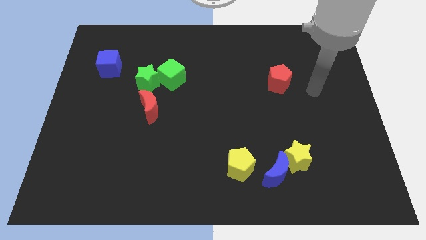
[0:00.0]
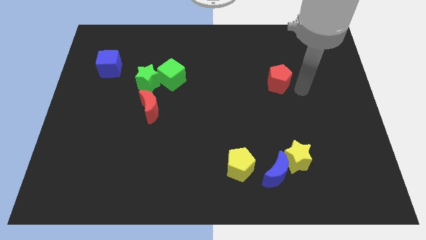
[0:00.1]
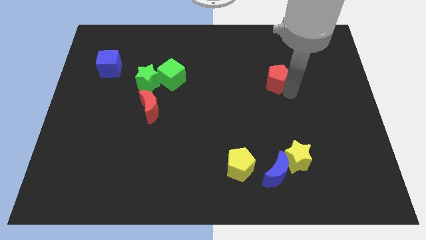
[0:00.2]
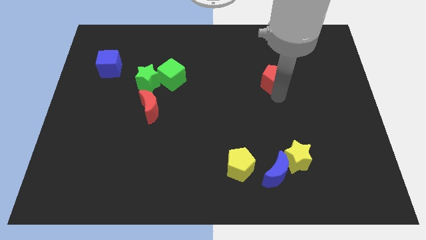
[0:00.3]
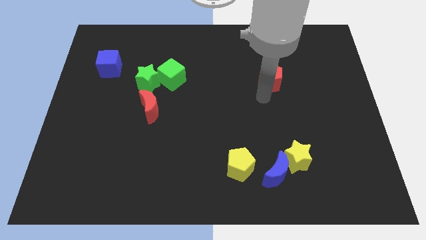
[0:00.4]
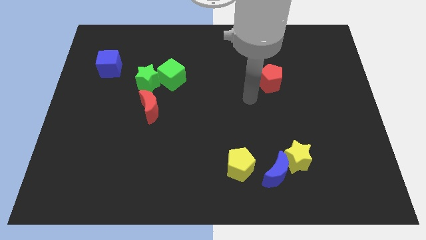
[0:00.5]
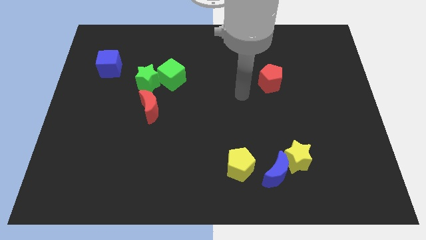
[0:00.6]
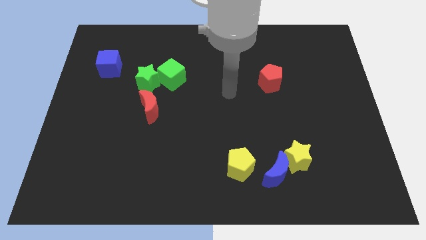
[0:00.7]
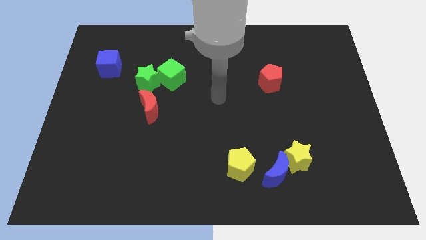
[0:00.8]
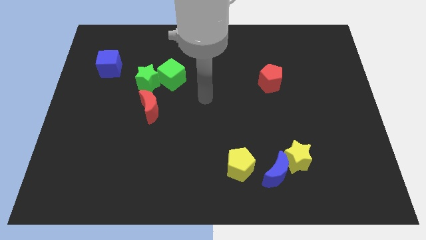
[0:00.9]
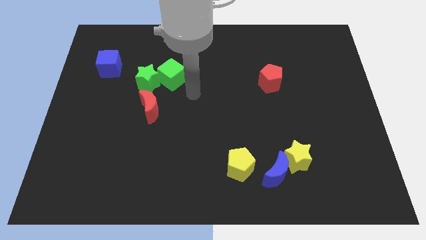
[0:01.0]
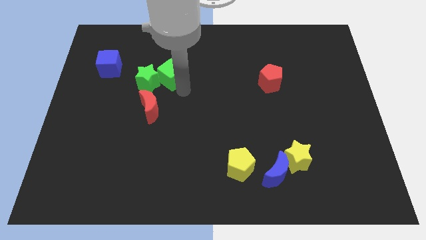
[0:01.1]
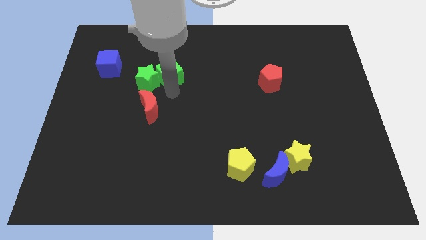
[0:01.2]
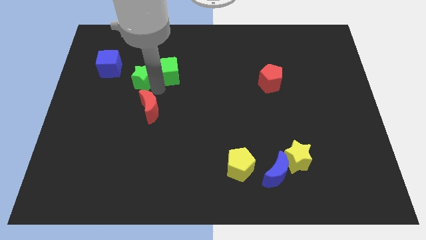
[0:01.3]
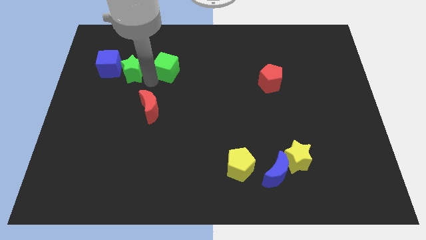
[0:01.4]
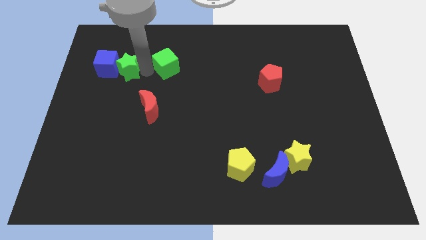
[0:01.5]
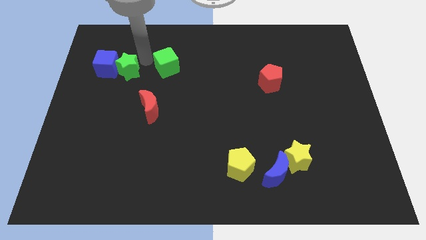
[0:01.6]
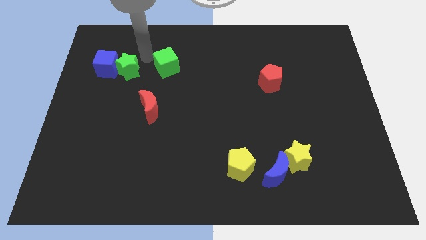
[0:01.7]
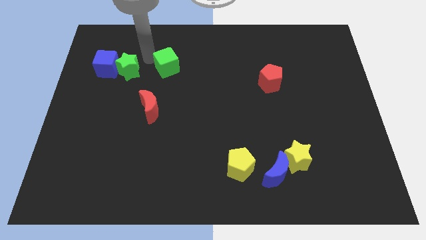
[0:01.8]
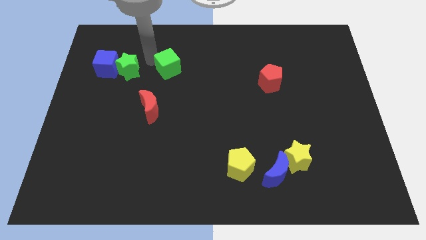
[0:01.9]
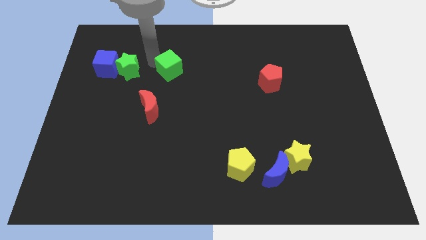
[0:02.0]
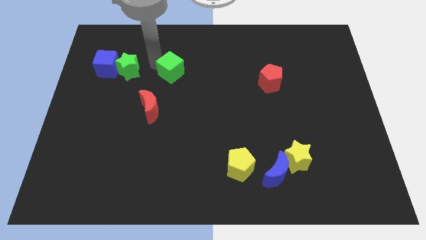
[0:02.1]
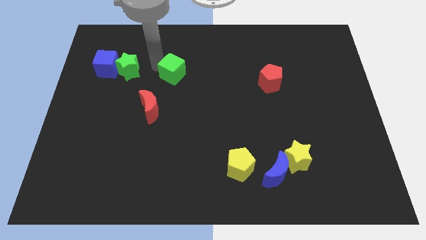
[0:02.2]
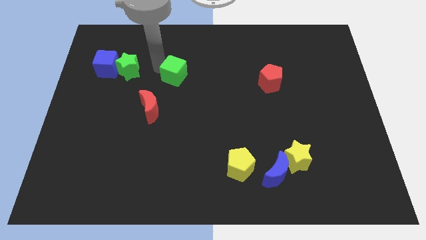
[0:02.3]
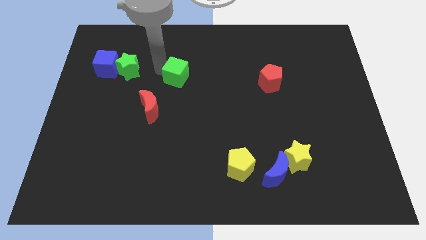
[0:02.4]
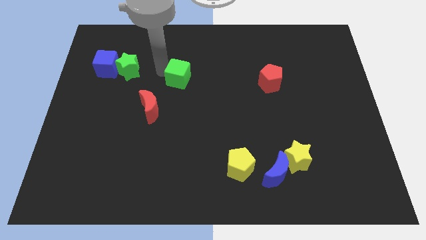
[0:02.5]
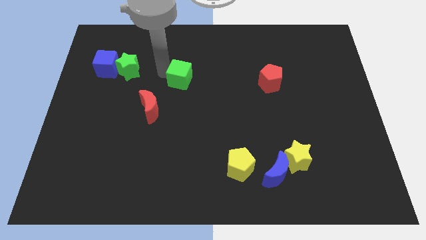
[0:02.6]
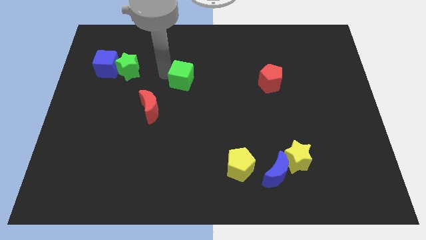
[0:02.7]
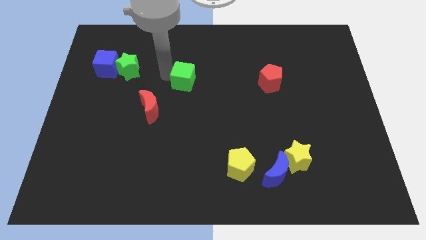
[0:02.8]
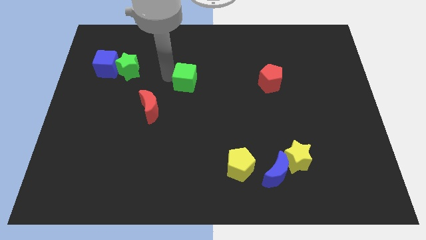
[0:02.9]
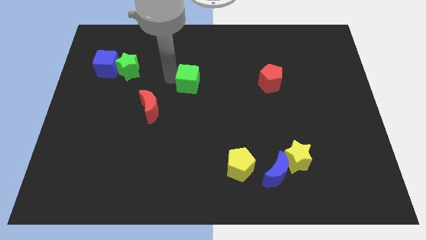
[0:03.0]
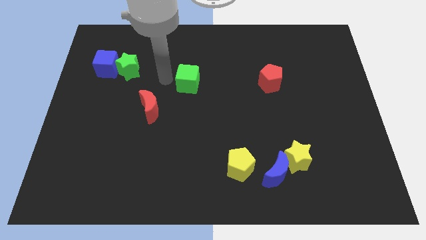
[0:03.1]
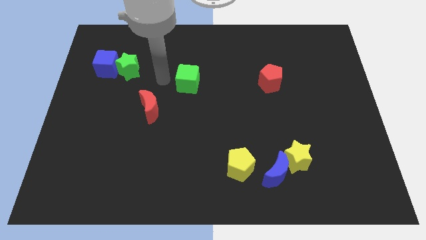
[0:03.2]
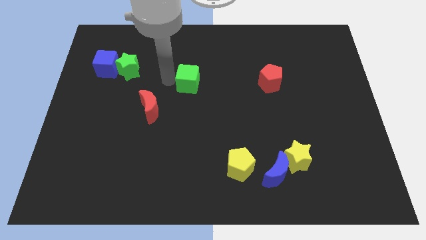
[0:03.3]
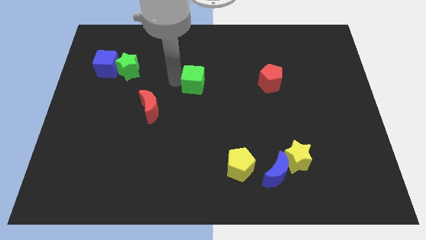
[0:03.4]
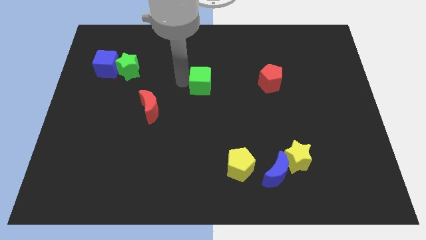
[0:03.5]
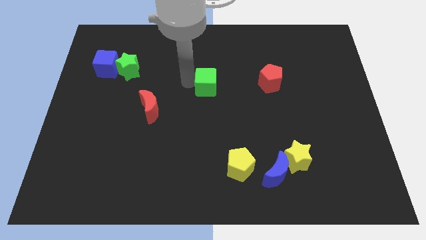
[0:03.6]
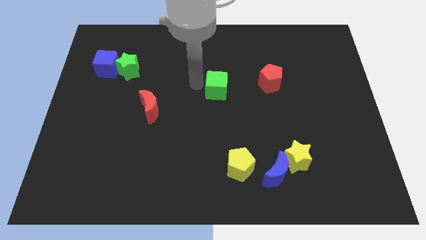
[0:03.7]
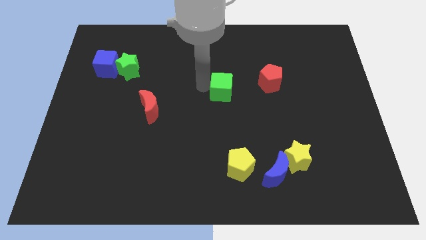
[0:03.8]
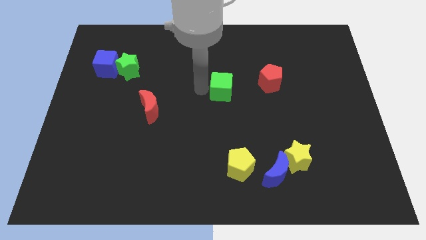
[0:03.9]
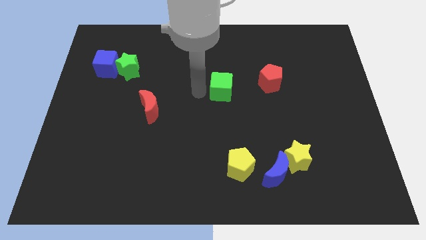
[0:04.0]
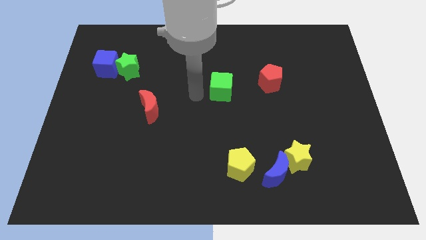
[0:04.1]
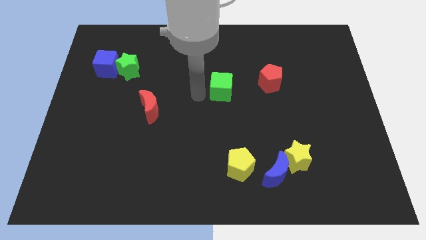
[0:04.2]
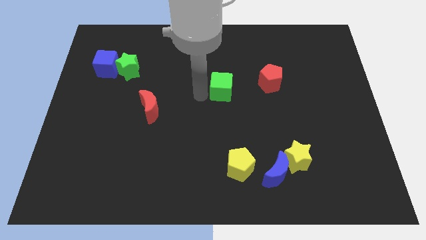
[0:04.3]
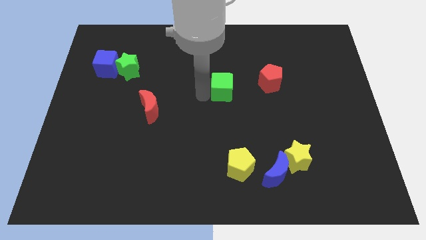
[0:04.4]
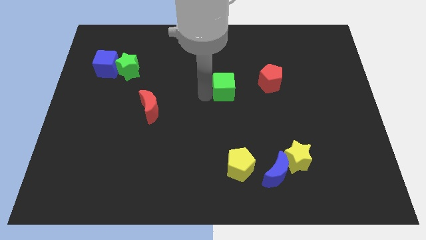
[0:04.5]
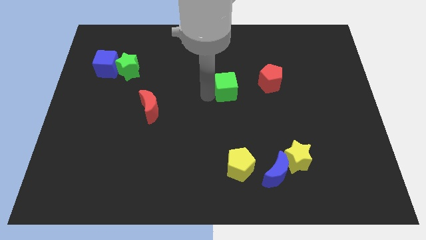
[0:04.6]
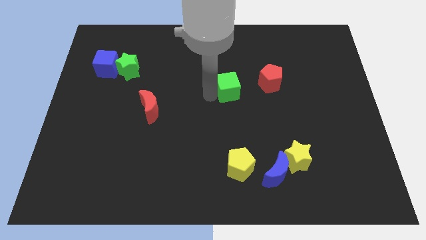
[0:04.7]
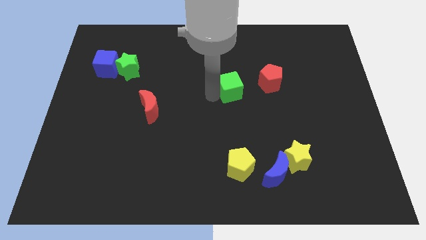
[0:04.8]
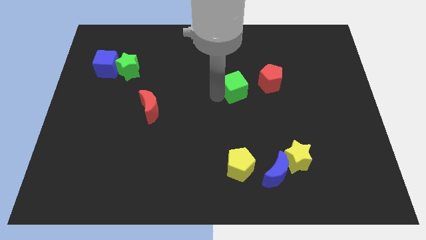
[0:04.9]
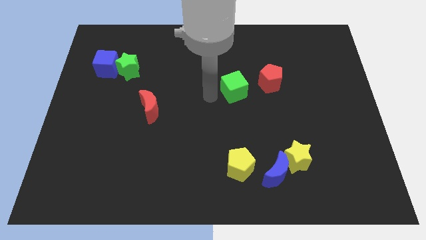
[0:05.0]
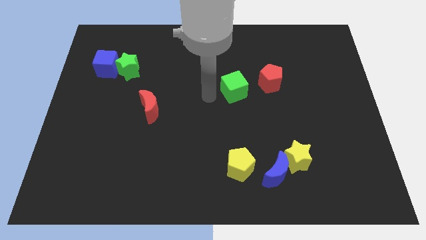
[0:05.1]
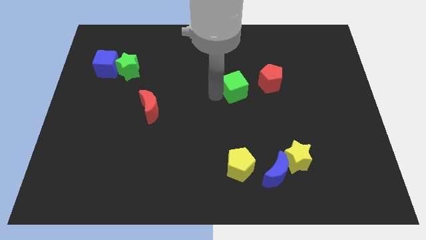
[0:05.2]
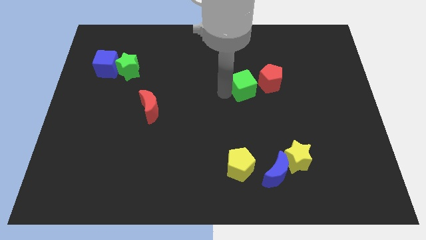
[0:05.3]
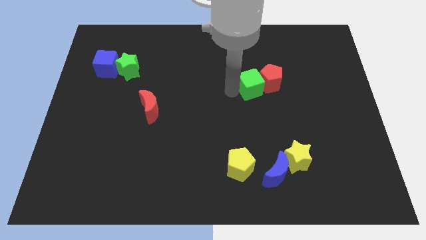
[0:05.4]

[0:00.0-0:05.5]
put the green cube close to the red pentagon

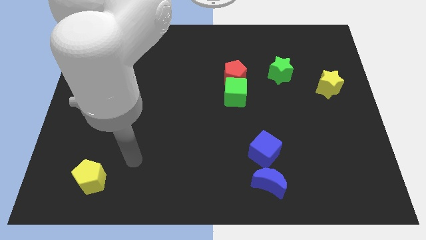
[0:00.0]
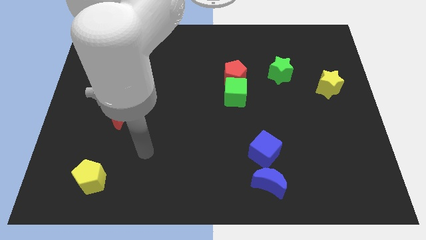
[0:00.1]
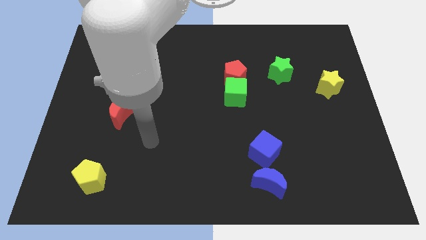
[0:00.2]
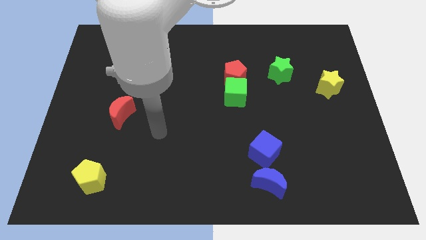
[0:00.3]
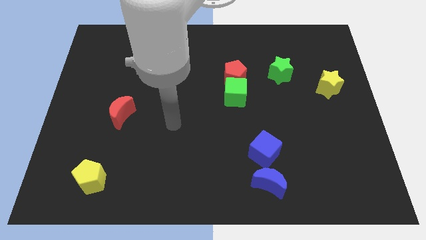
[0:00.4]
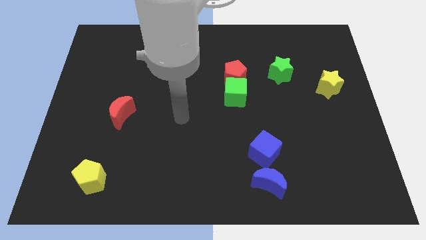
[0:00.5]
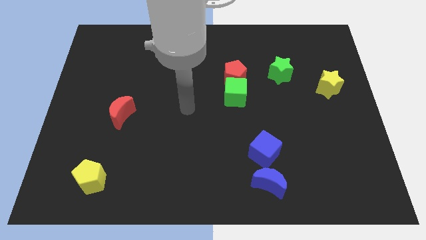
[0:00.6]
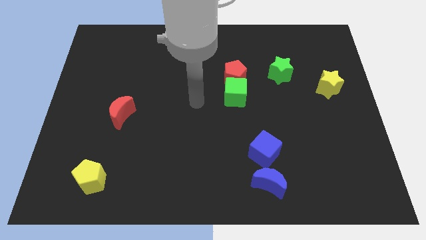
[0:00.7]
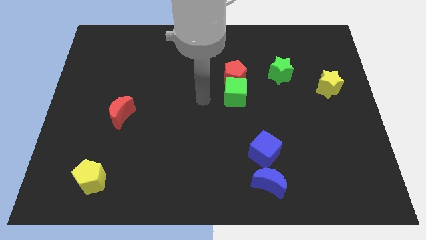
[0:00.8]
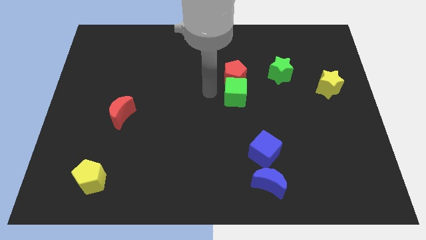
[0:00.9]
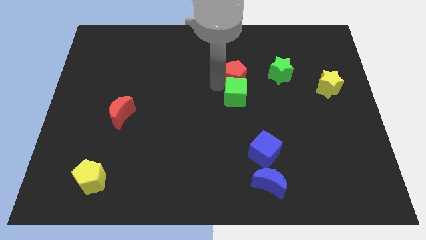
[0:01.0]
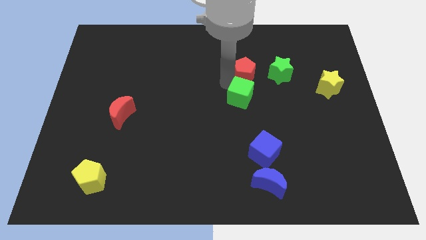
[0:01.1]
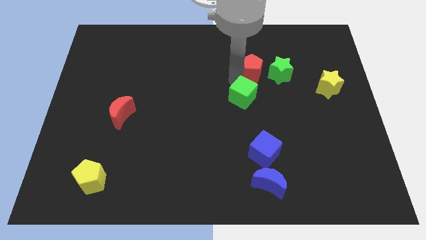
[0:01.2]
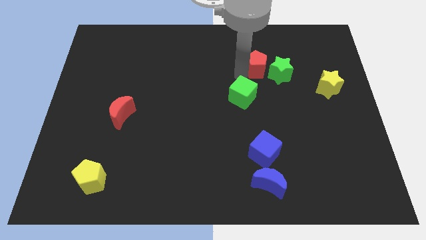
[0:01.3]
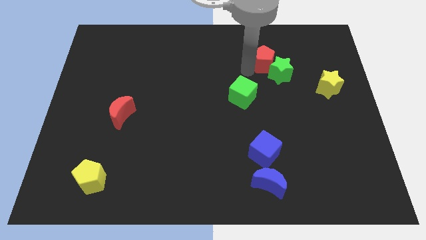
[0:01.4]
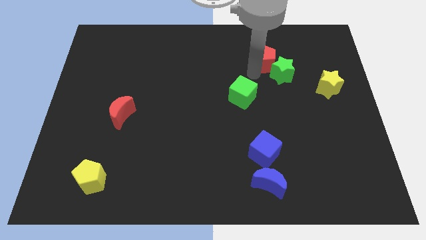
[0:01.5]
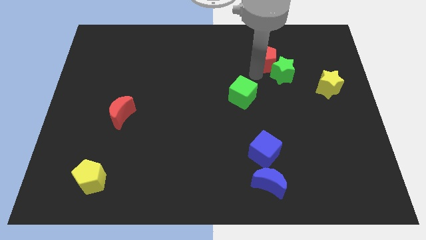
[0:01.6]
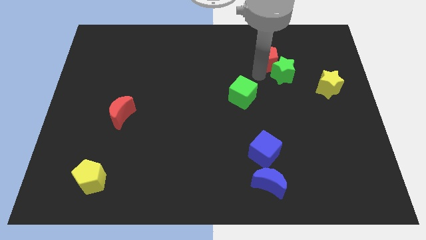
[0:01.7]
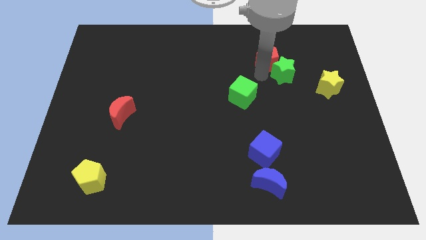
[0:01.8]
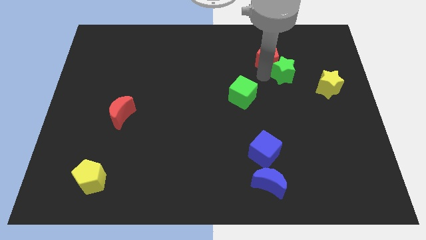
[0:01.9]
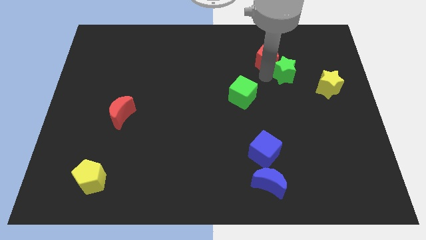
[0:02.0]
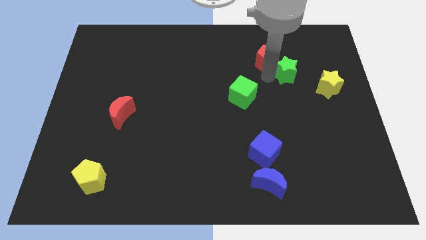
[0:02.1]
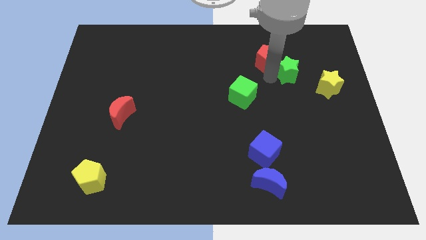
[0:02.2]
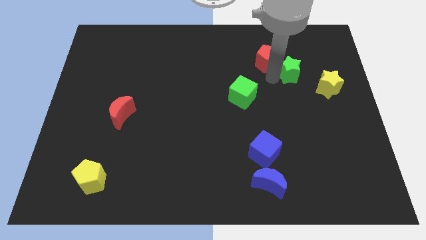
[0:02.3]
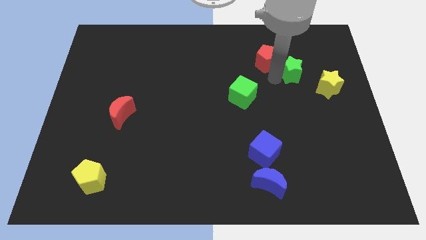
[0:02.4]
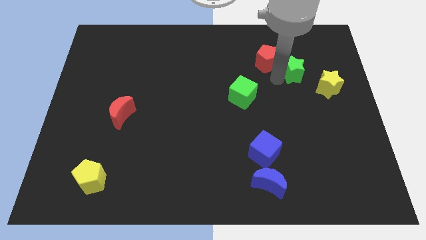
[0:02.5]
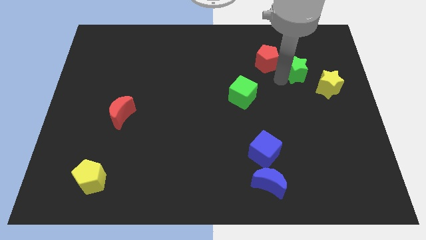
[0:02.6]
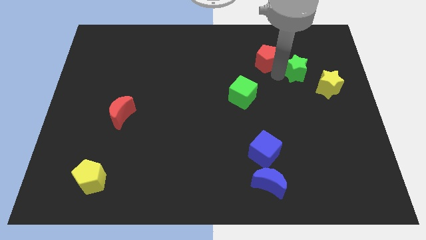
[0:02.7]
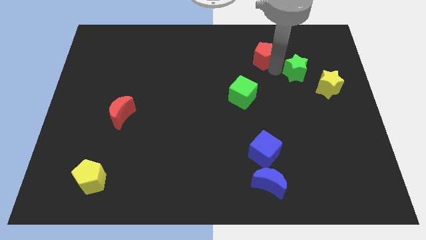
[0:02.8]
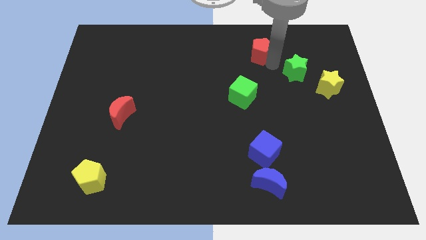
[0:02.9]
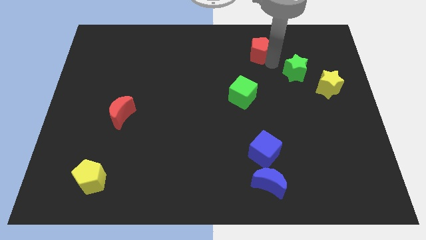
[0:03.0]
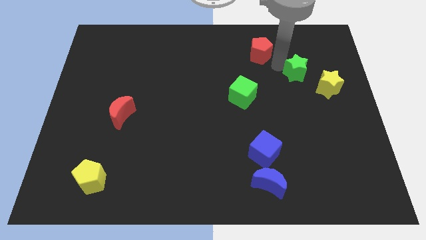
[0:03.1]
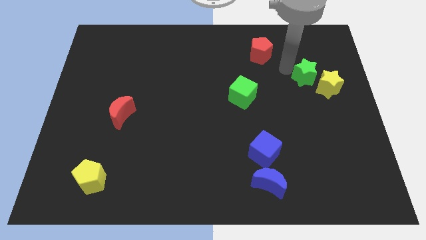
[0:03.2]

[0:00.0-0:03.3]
slide the green star to the yellow star
